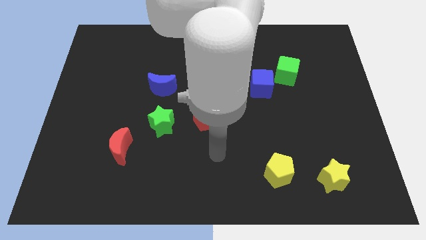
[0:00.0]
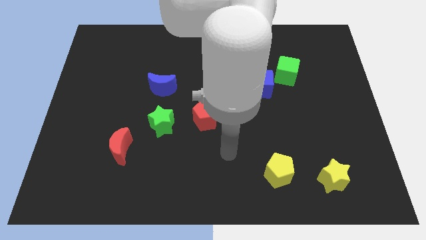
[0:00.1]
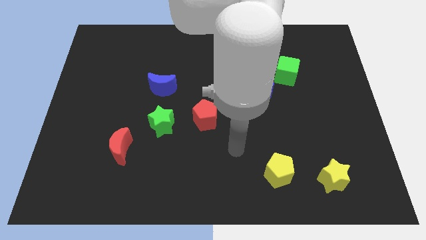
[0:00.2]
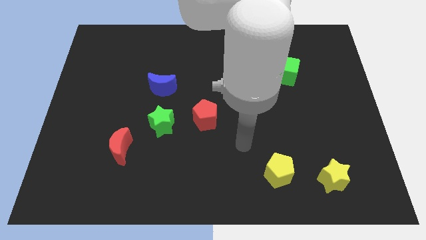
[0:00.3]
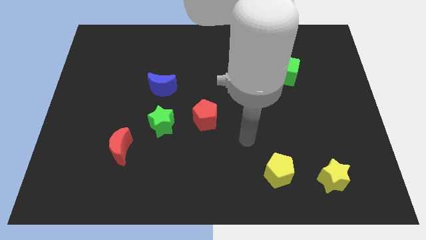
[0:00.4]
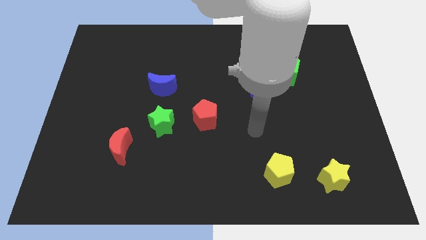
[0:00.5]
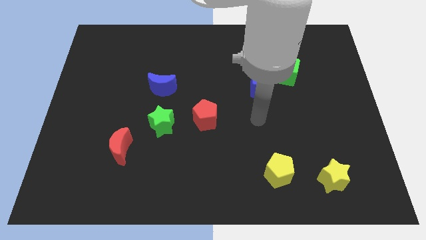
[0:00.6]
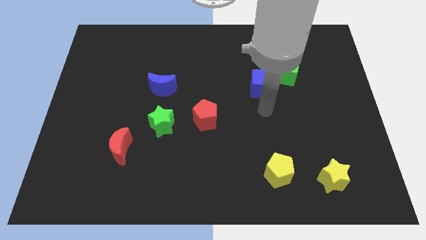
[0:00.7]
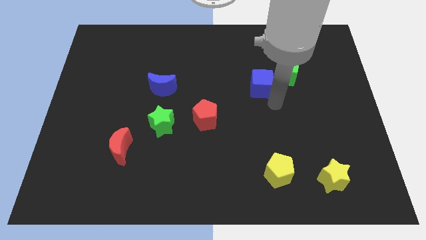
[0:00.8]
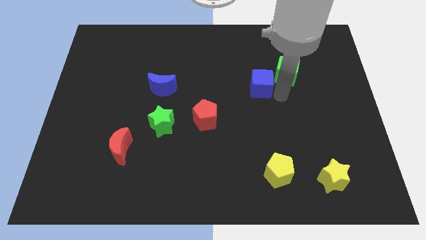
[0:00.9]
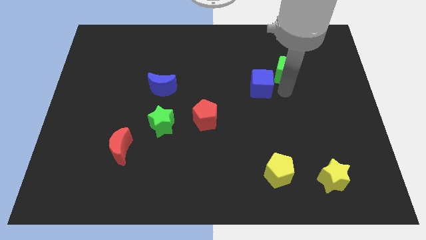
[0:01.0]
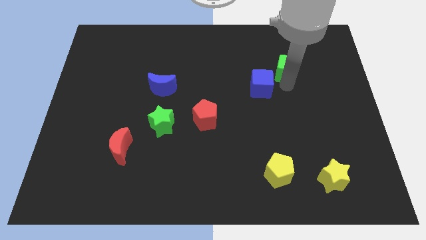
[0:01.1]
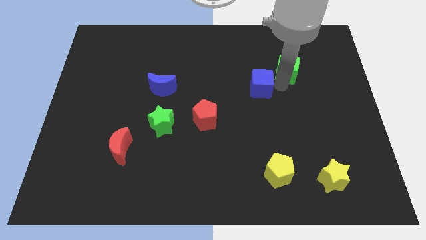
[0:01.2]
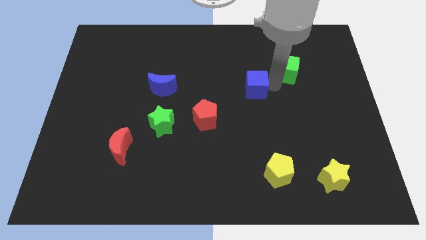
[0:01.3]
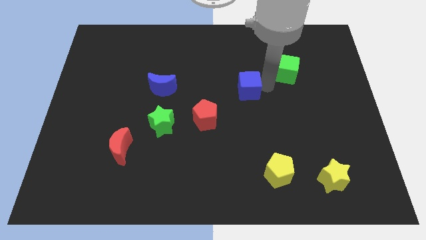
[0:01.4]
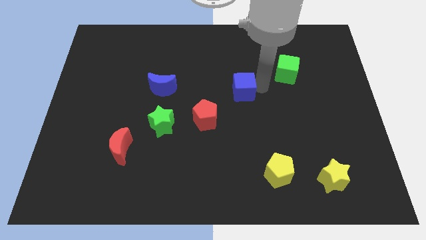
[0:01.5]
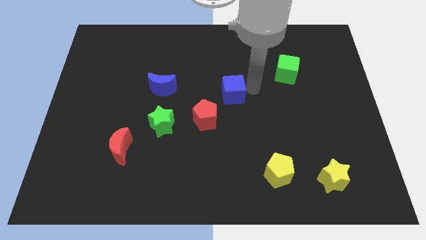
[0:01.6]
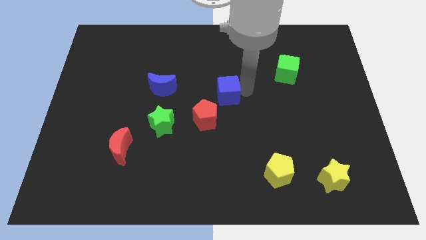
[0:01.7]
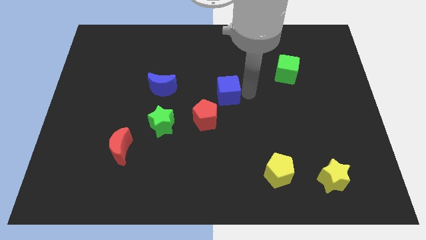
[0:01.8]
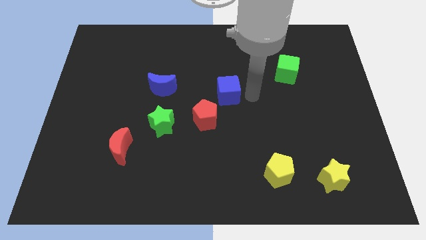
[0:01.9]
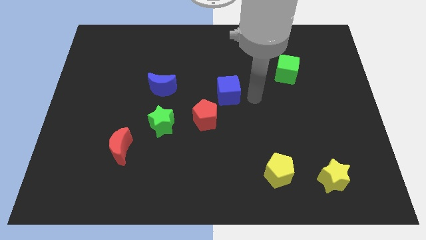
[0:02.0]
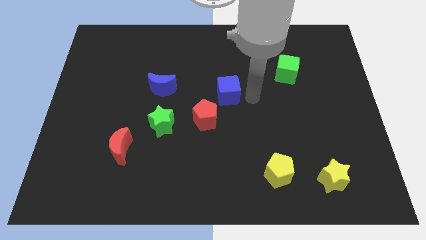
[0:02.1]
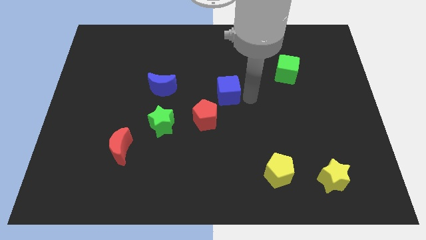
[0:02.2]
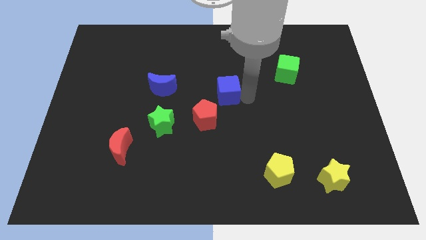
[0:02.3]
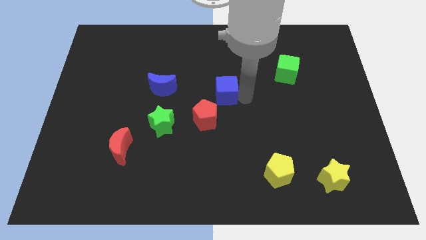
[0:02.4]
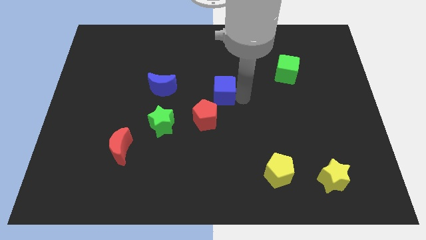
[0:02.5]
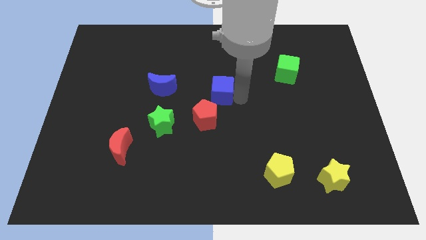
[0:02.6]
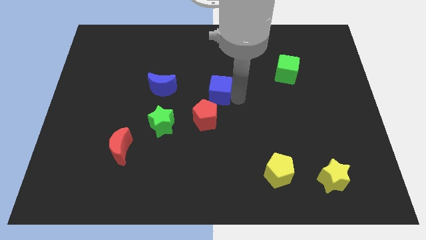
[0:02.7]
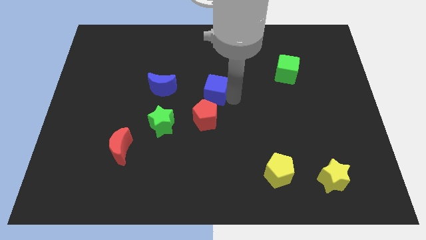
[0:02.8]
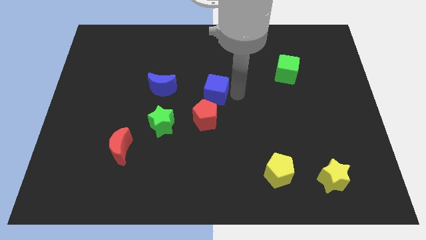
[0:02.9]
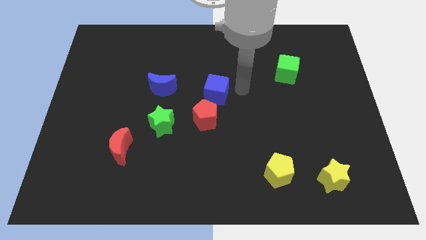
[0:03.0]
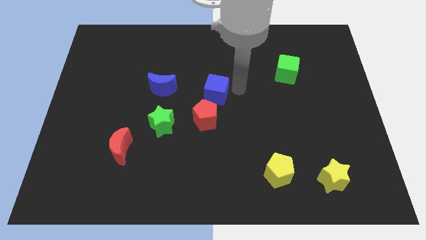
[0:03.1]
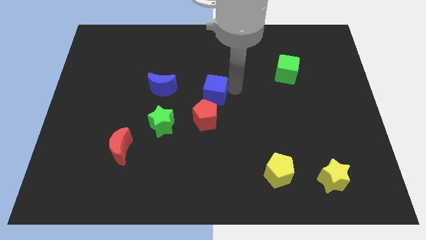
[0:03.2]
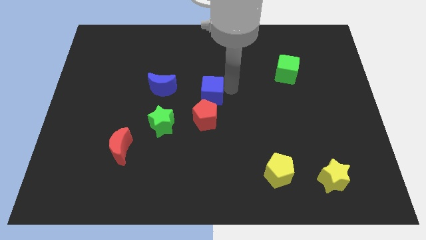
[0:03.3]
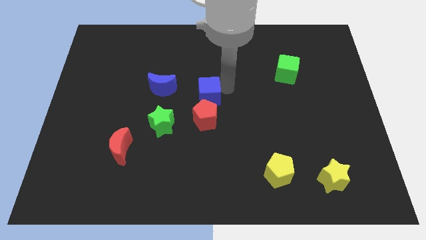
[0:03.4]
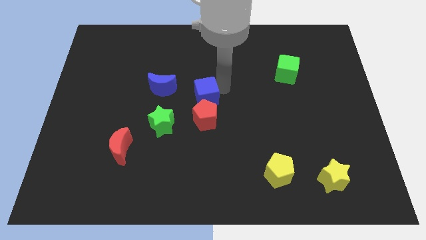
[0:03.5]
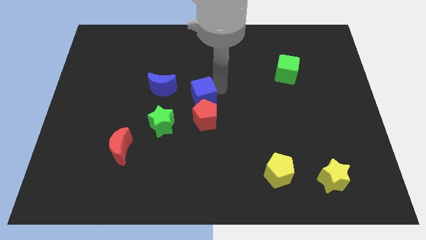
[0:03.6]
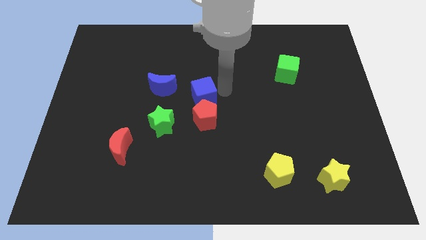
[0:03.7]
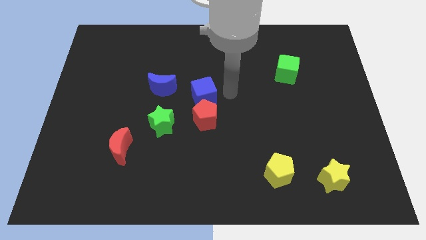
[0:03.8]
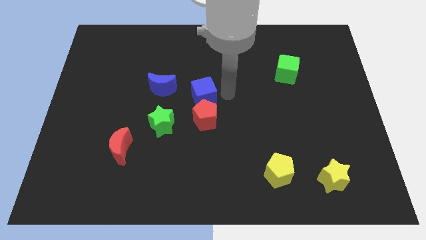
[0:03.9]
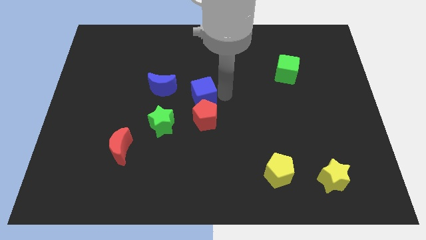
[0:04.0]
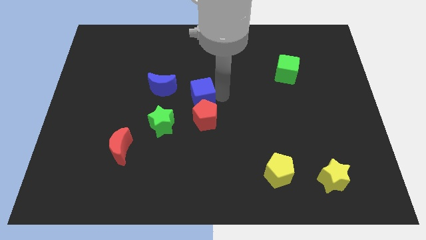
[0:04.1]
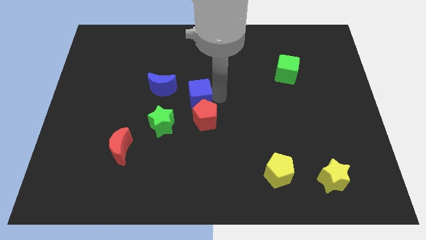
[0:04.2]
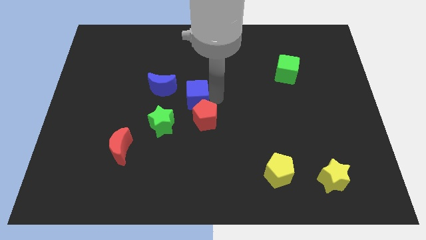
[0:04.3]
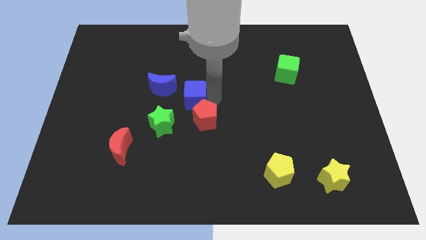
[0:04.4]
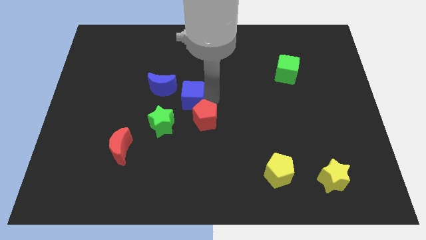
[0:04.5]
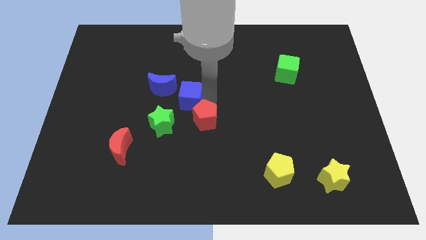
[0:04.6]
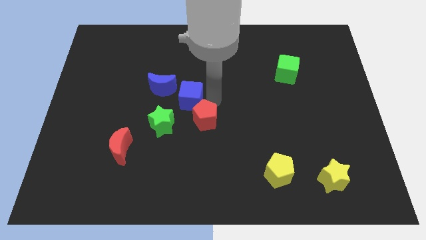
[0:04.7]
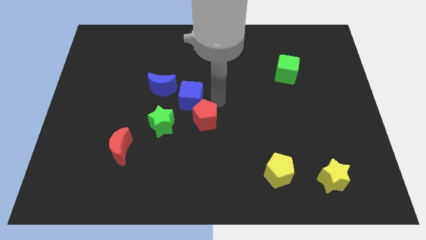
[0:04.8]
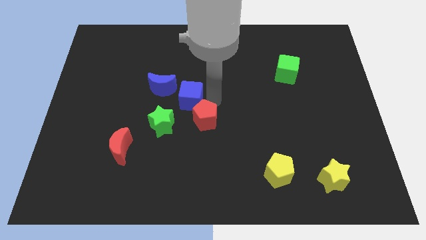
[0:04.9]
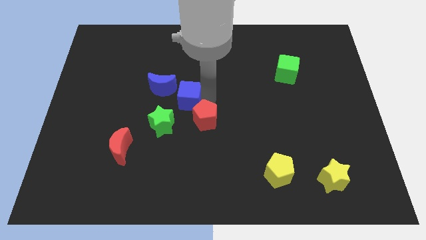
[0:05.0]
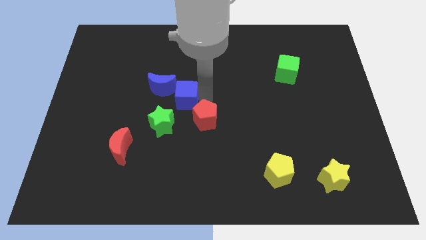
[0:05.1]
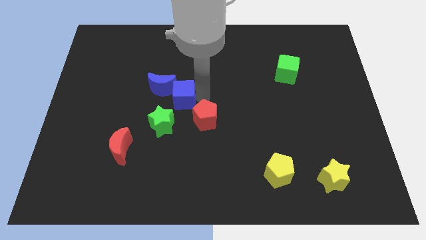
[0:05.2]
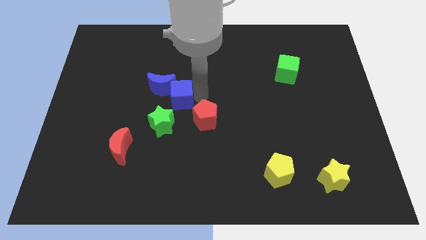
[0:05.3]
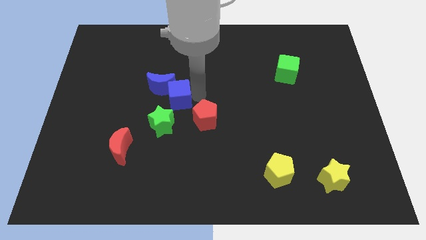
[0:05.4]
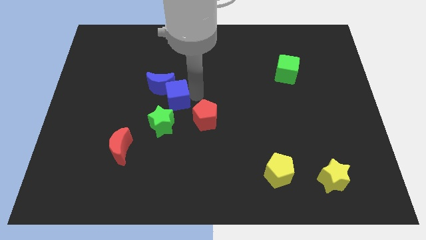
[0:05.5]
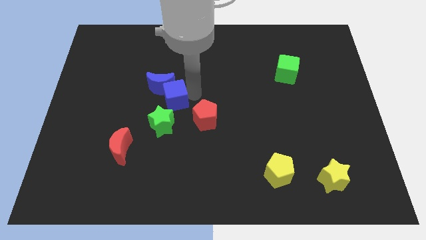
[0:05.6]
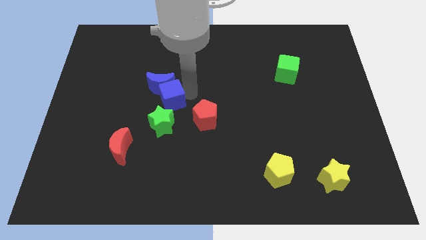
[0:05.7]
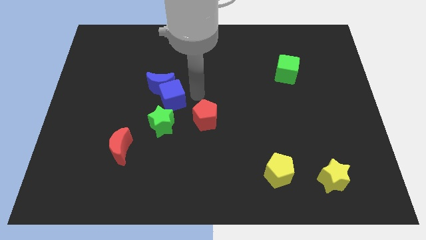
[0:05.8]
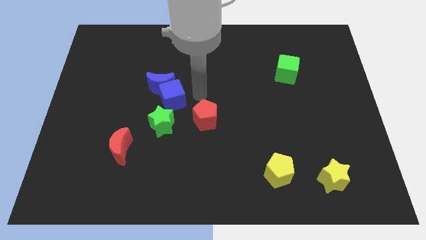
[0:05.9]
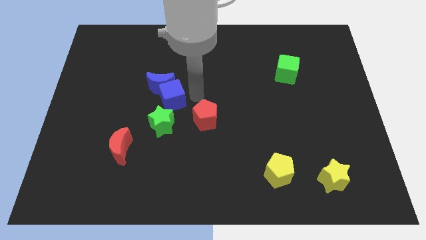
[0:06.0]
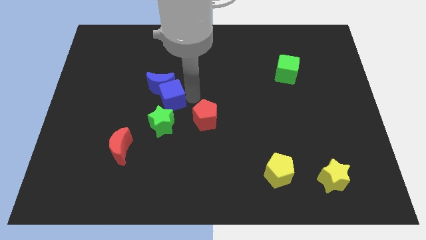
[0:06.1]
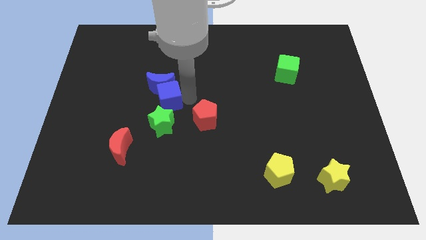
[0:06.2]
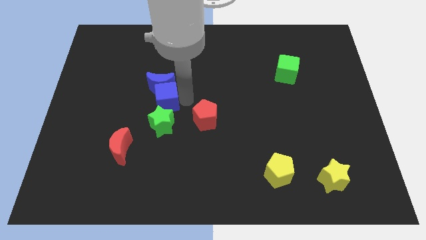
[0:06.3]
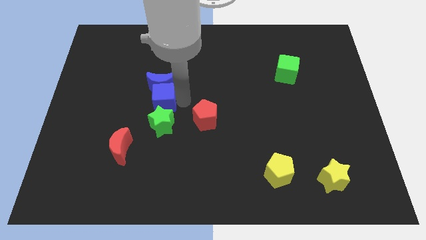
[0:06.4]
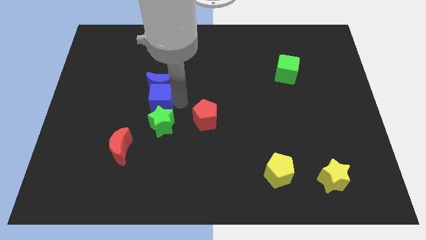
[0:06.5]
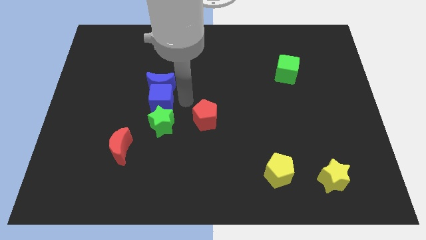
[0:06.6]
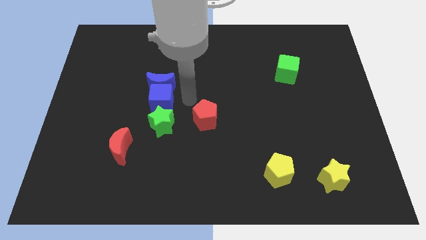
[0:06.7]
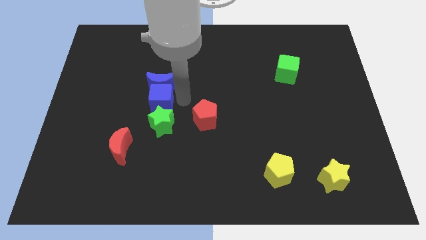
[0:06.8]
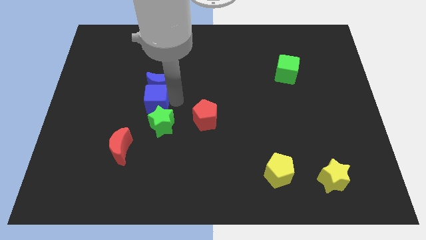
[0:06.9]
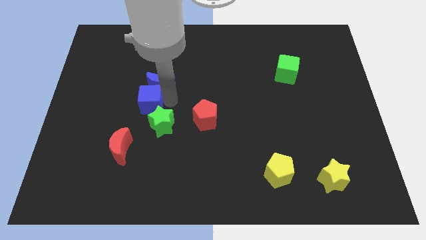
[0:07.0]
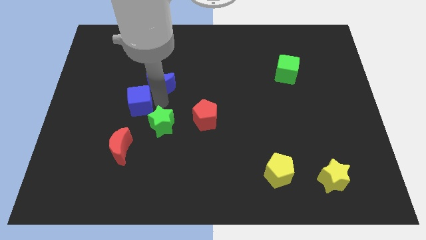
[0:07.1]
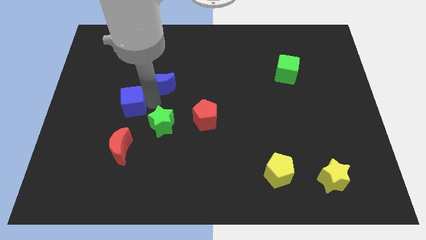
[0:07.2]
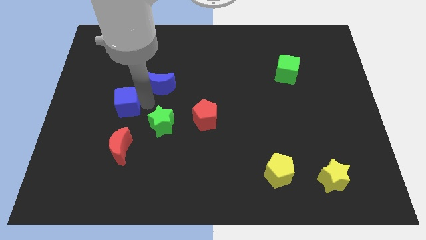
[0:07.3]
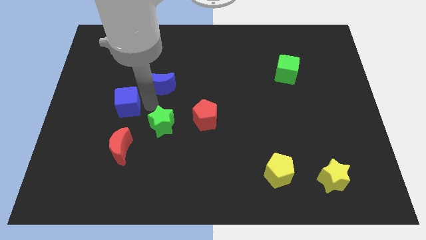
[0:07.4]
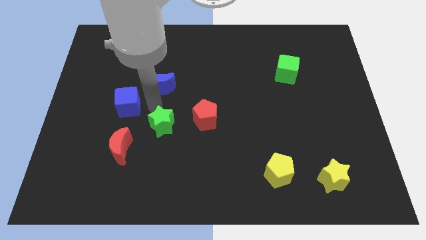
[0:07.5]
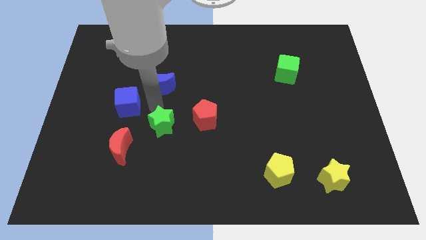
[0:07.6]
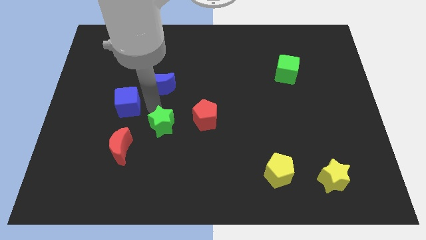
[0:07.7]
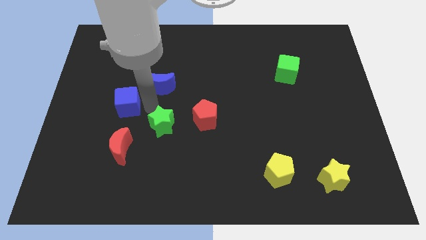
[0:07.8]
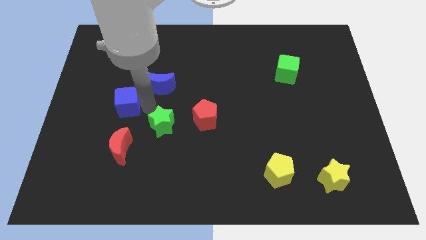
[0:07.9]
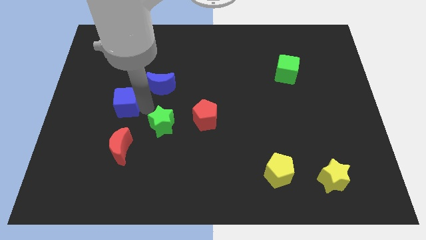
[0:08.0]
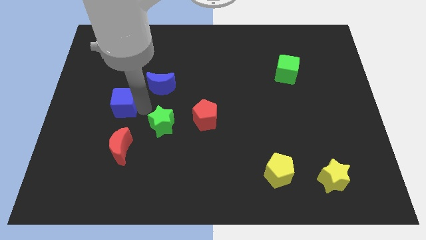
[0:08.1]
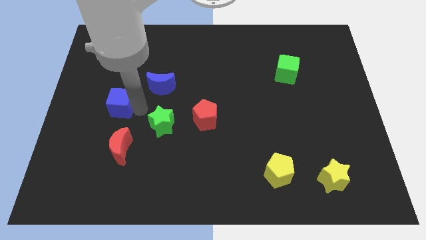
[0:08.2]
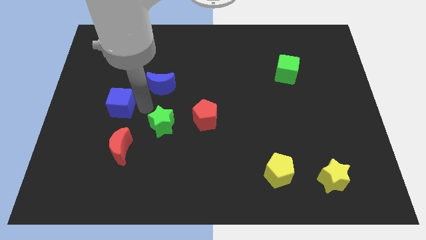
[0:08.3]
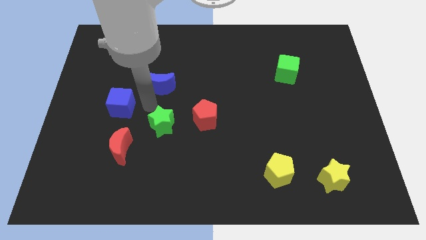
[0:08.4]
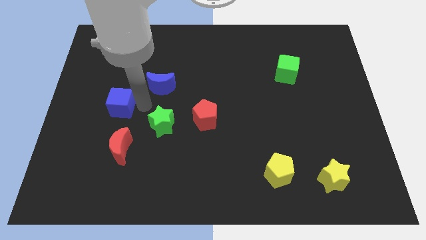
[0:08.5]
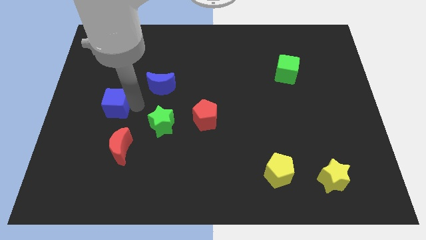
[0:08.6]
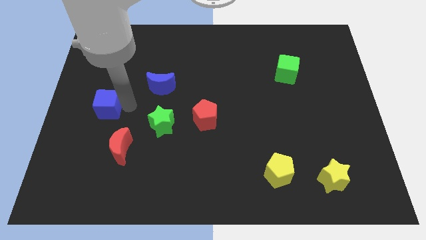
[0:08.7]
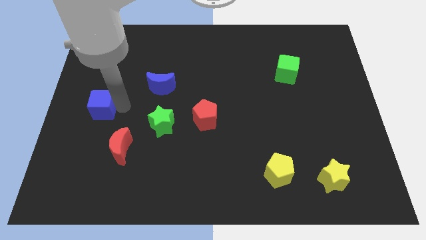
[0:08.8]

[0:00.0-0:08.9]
push the blue cube to the left side of the board
